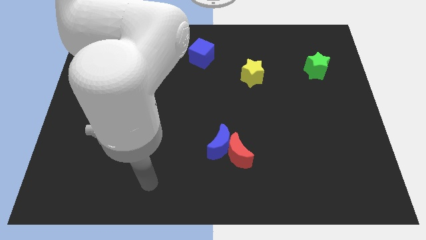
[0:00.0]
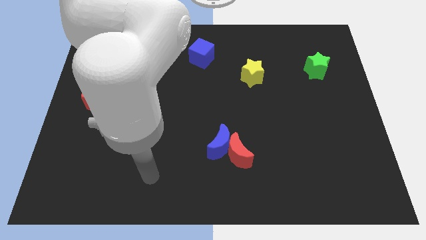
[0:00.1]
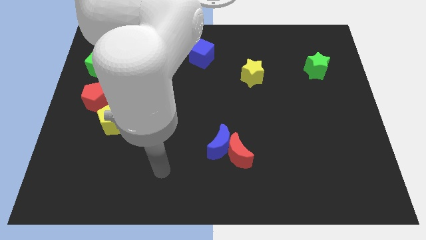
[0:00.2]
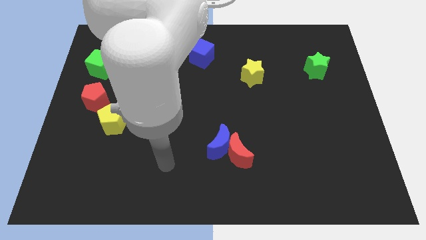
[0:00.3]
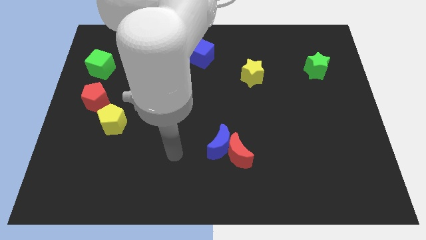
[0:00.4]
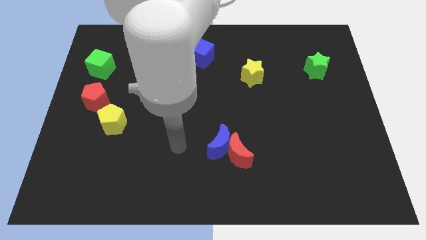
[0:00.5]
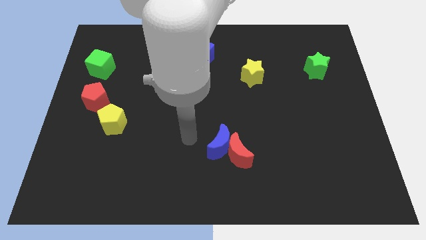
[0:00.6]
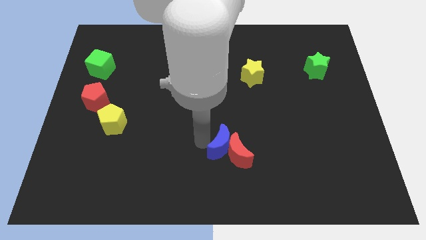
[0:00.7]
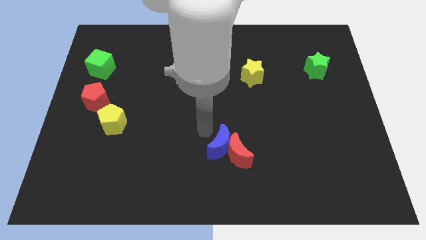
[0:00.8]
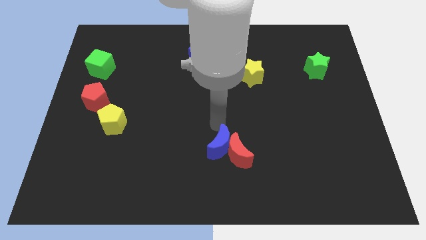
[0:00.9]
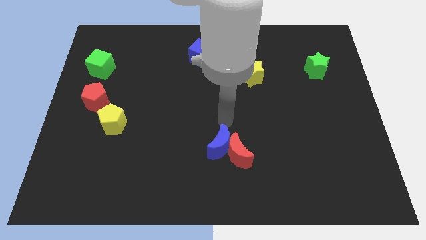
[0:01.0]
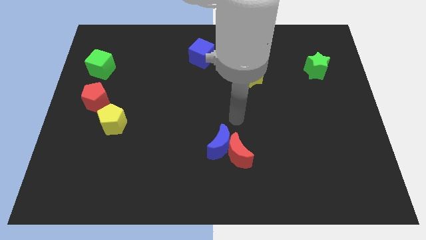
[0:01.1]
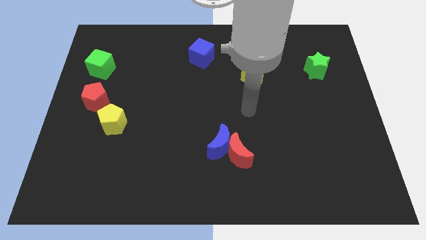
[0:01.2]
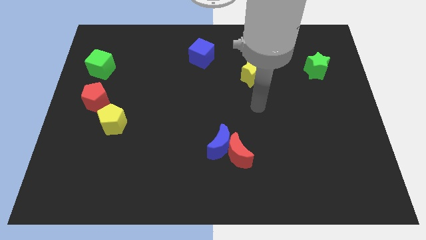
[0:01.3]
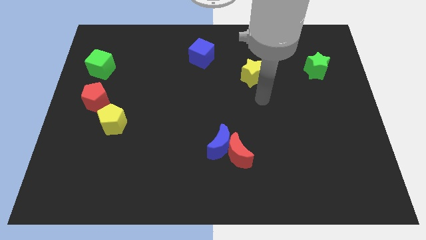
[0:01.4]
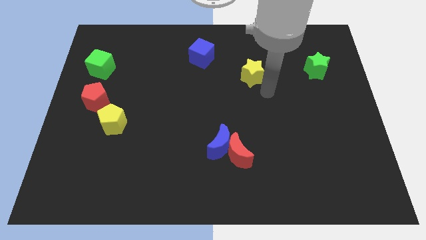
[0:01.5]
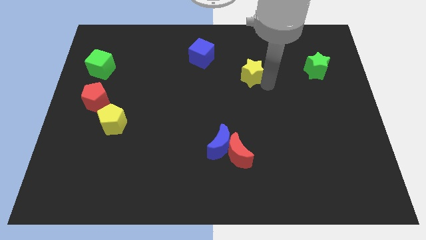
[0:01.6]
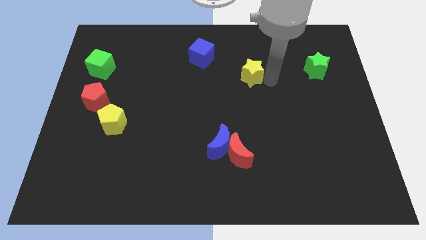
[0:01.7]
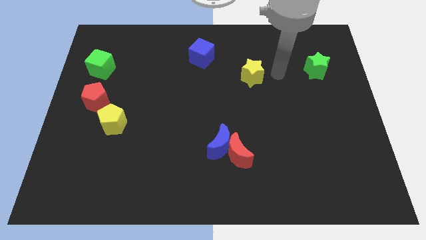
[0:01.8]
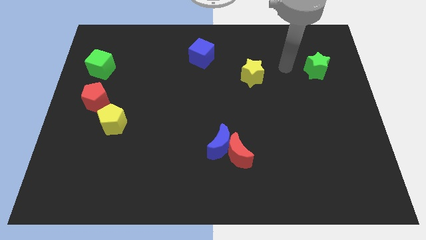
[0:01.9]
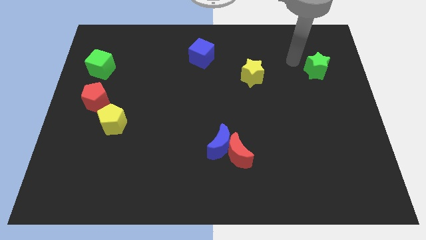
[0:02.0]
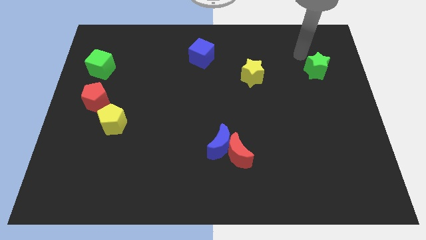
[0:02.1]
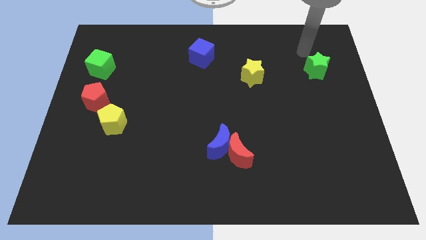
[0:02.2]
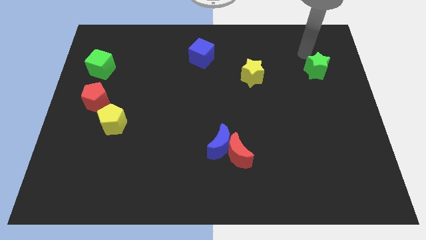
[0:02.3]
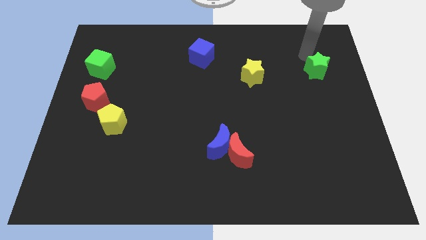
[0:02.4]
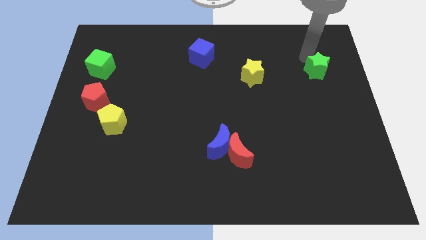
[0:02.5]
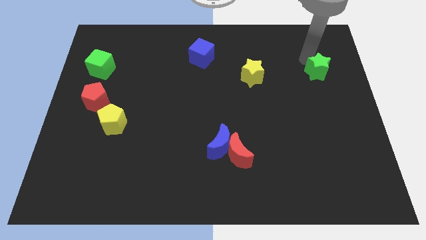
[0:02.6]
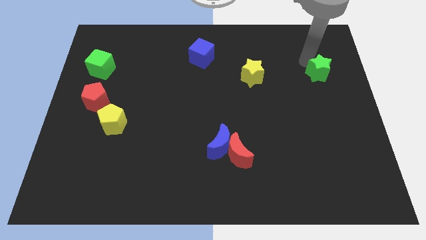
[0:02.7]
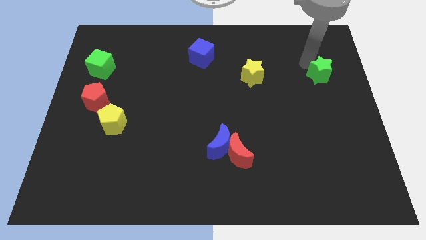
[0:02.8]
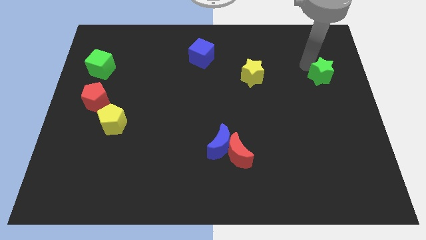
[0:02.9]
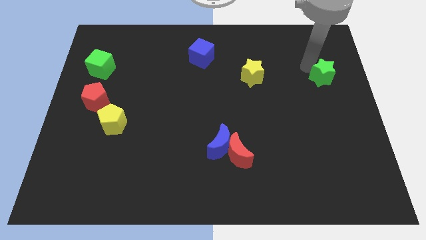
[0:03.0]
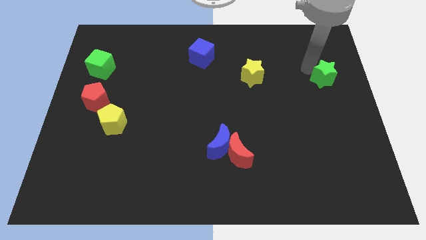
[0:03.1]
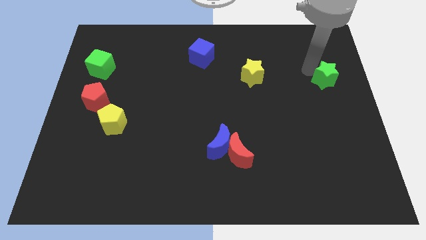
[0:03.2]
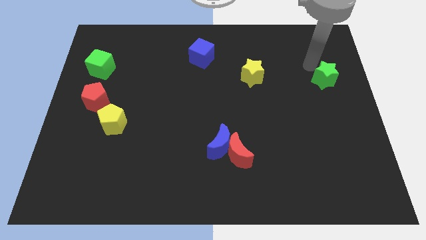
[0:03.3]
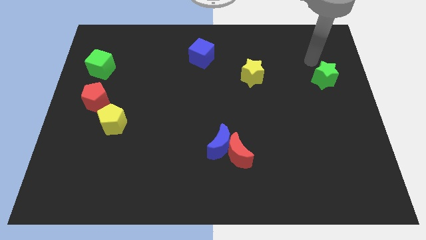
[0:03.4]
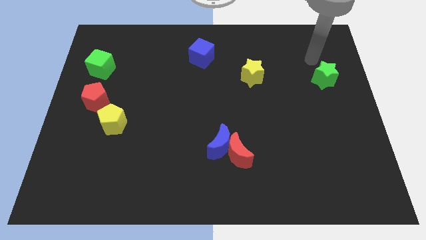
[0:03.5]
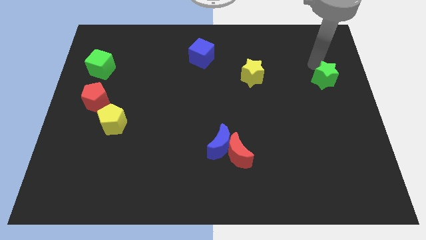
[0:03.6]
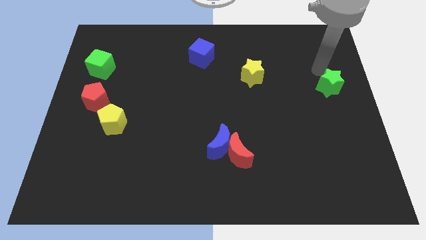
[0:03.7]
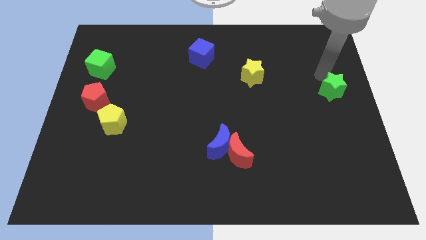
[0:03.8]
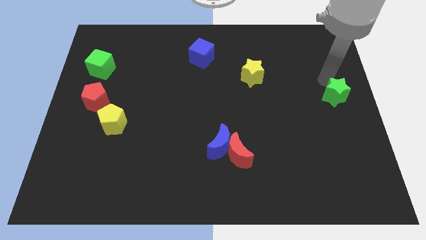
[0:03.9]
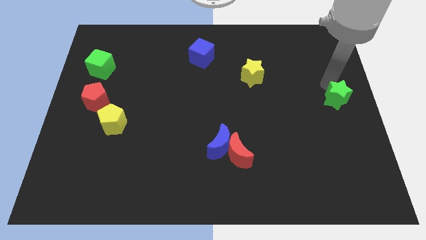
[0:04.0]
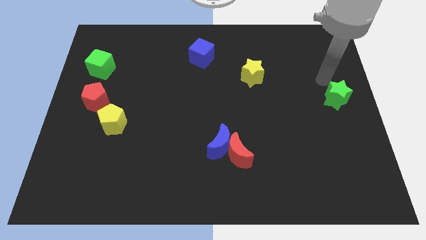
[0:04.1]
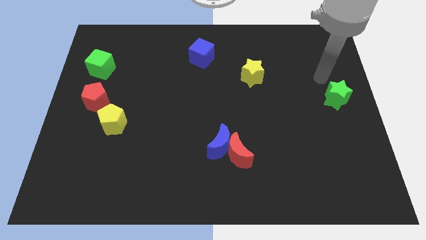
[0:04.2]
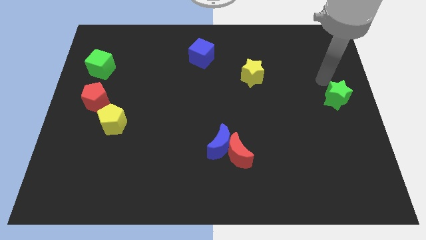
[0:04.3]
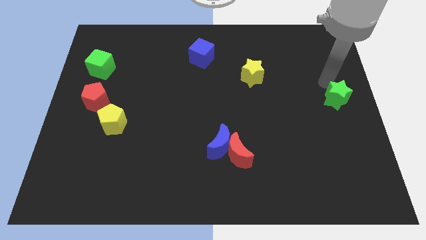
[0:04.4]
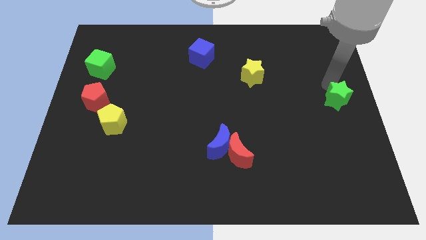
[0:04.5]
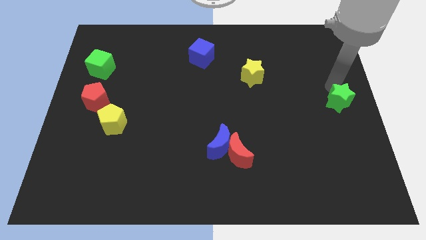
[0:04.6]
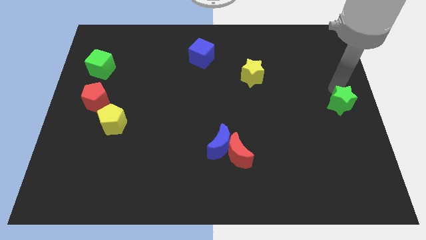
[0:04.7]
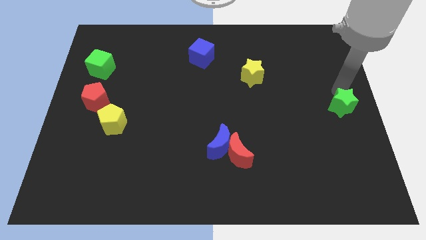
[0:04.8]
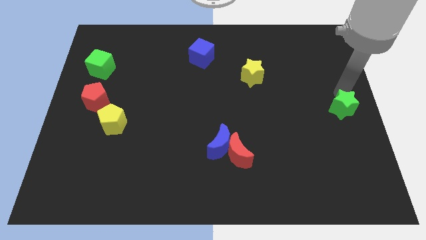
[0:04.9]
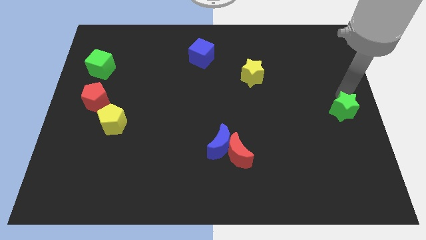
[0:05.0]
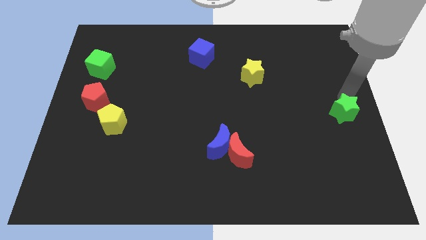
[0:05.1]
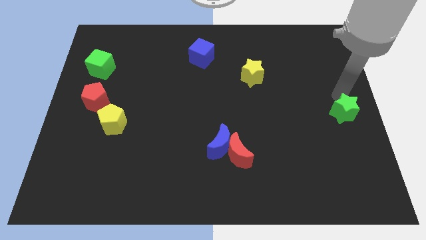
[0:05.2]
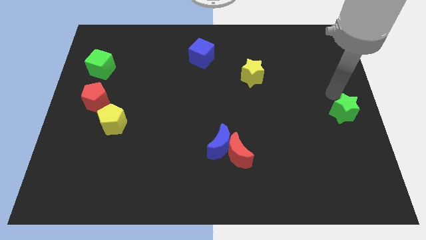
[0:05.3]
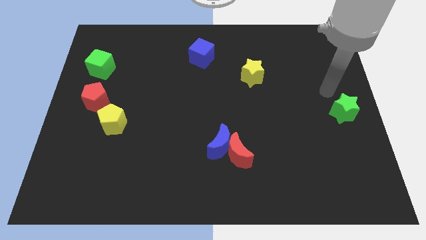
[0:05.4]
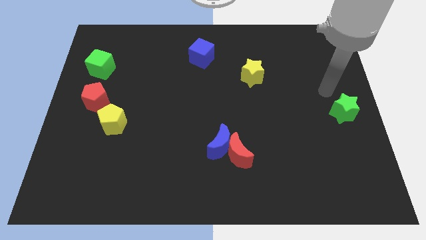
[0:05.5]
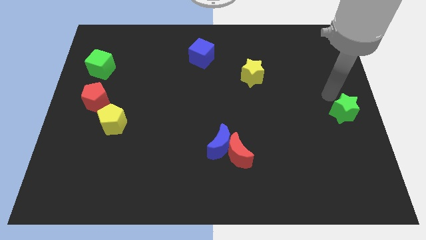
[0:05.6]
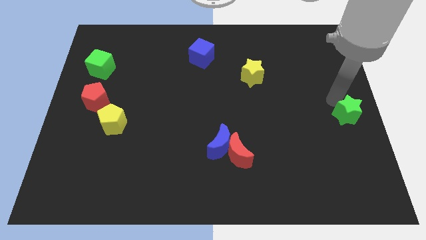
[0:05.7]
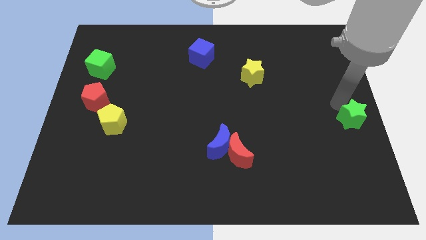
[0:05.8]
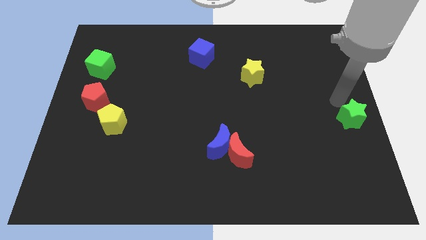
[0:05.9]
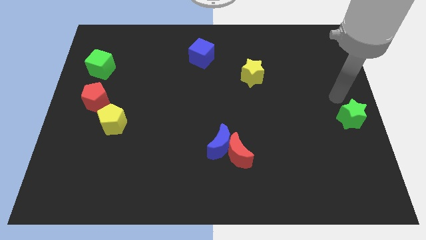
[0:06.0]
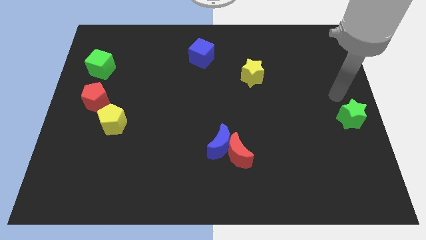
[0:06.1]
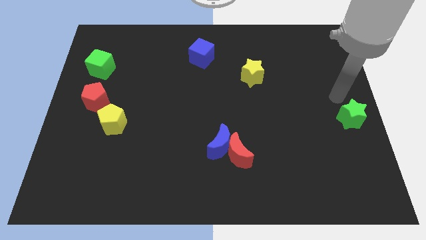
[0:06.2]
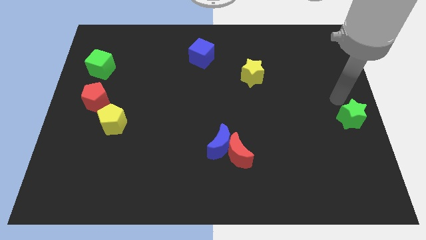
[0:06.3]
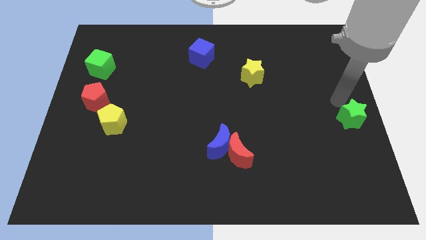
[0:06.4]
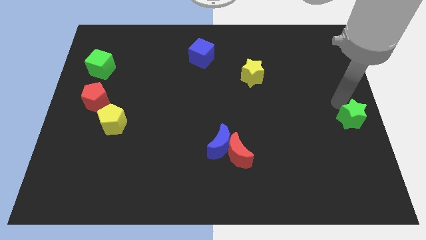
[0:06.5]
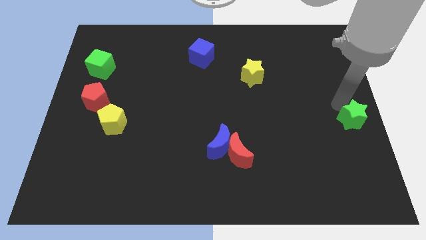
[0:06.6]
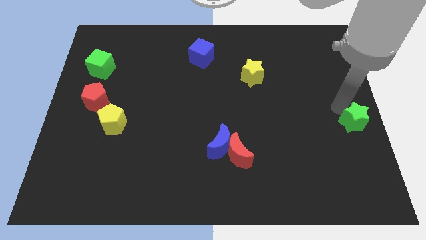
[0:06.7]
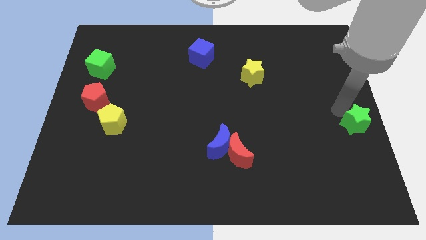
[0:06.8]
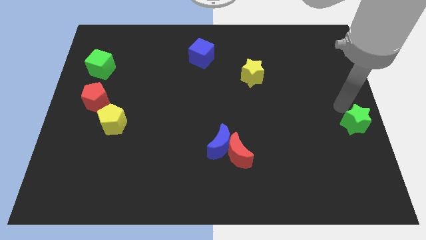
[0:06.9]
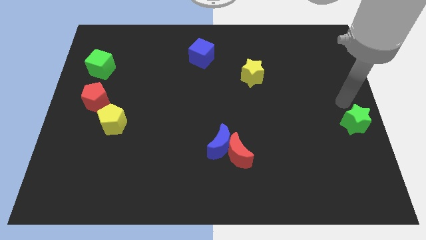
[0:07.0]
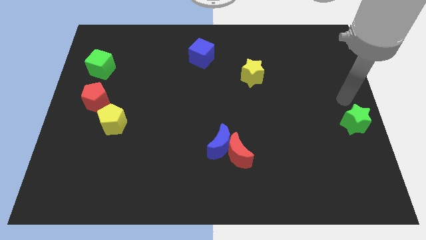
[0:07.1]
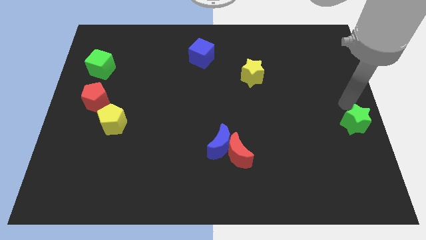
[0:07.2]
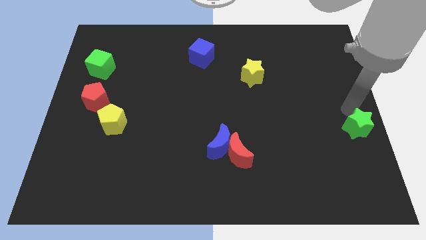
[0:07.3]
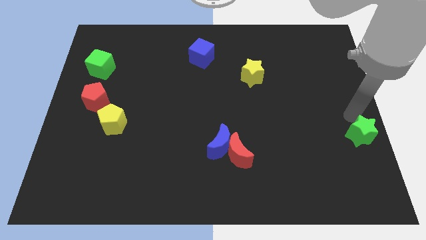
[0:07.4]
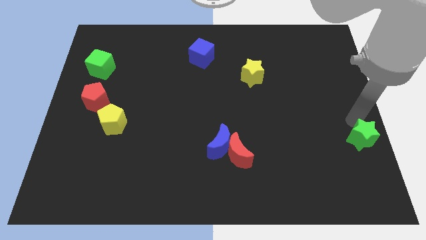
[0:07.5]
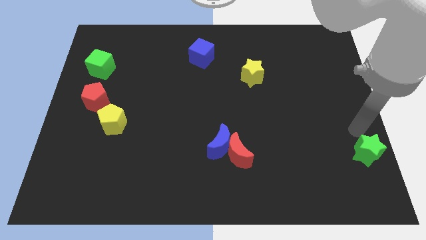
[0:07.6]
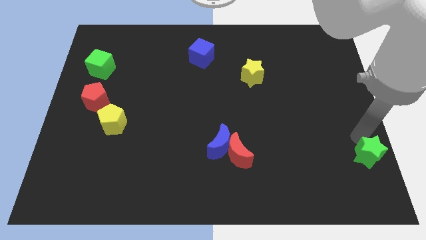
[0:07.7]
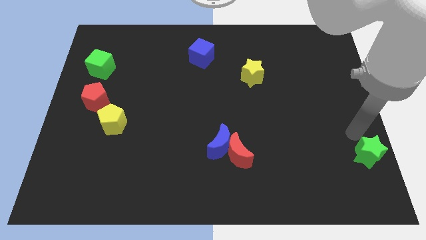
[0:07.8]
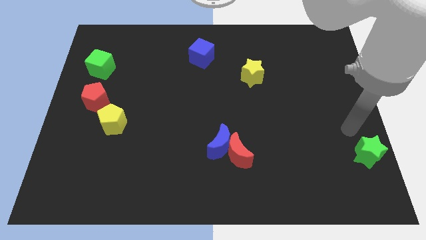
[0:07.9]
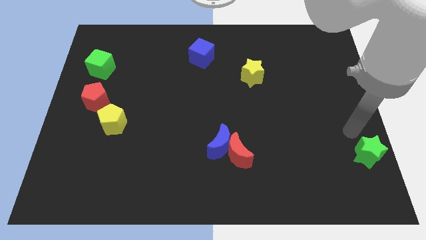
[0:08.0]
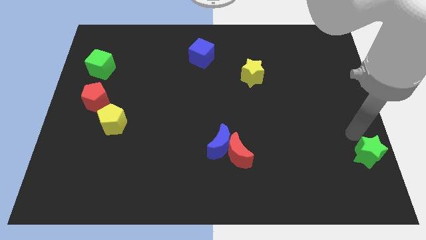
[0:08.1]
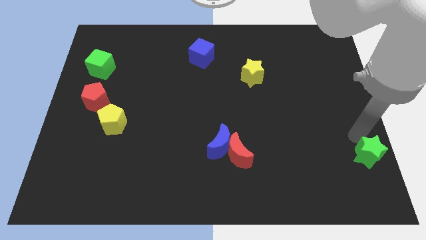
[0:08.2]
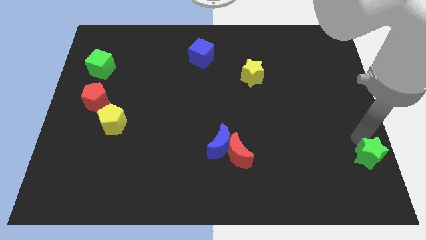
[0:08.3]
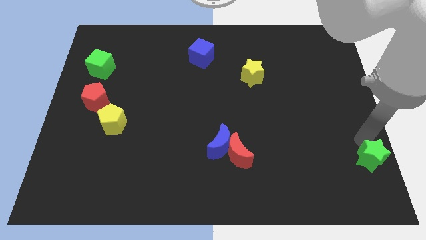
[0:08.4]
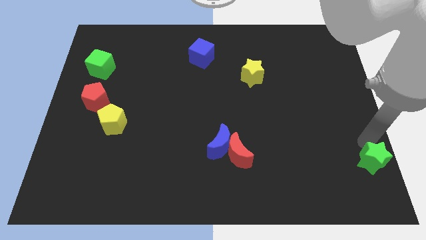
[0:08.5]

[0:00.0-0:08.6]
move the green star to the bottom right of the board
